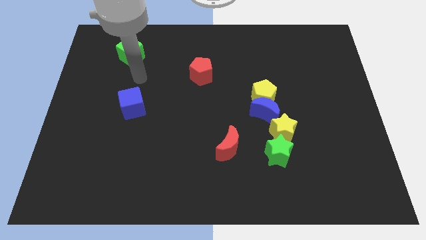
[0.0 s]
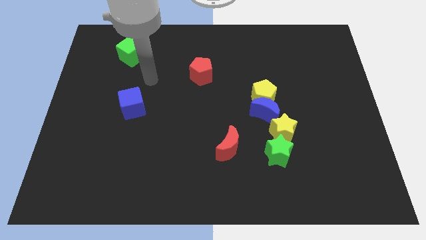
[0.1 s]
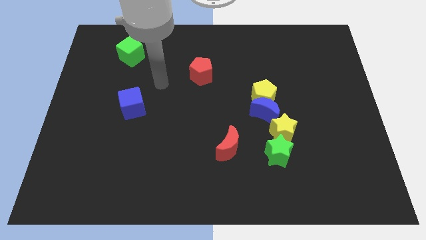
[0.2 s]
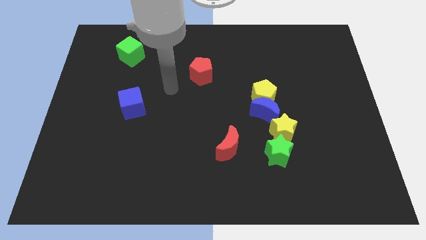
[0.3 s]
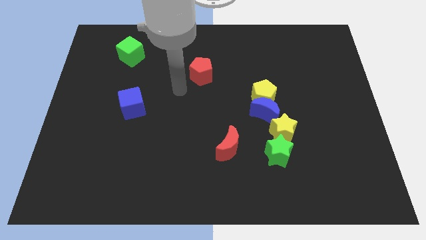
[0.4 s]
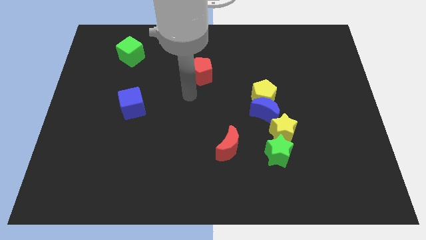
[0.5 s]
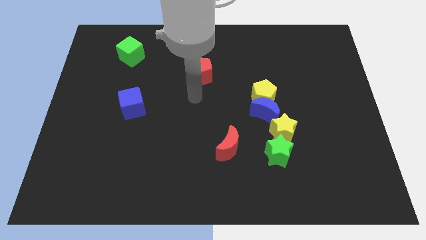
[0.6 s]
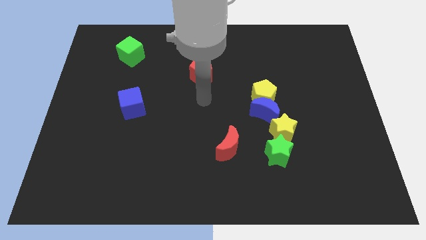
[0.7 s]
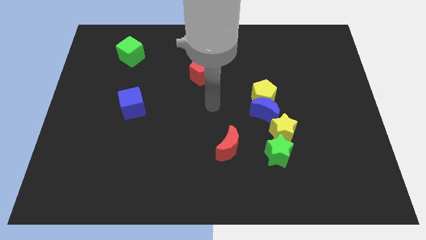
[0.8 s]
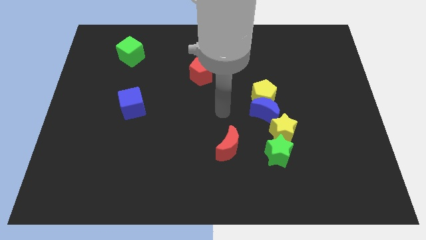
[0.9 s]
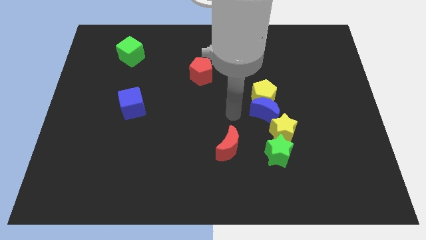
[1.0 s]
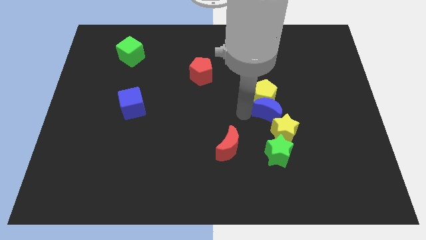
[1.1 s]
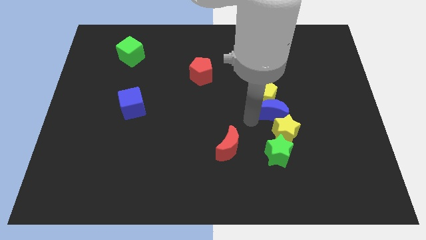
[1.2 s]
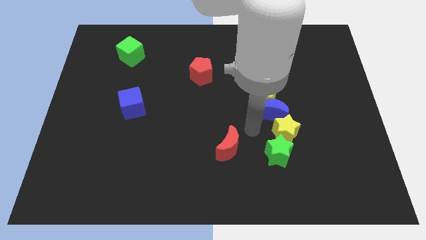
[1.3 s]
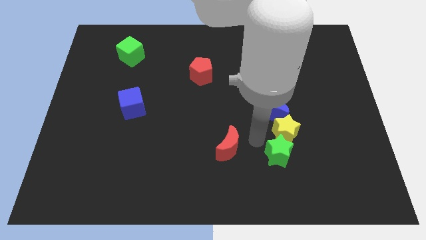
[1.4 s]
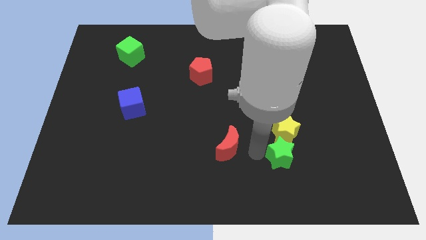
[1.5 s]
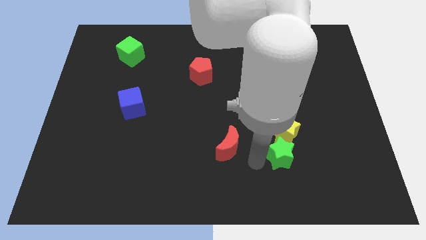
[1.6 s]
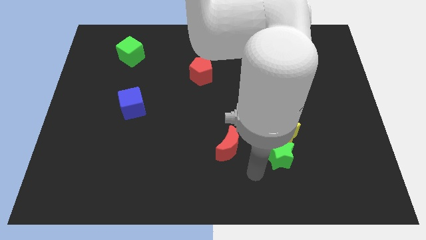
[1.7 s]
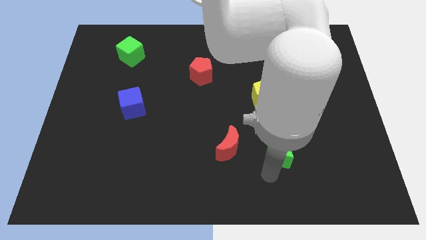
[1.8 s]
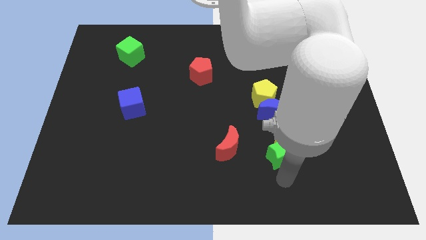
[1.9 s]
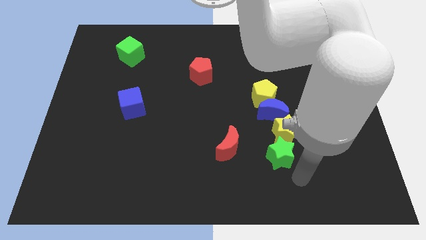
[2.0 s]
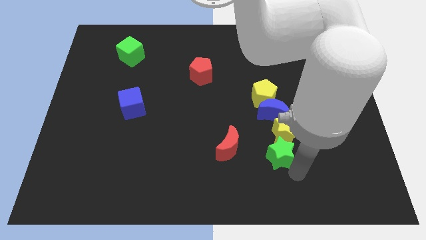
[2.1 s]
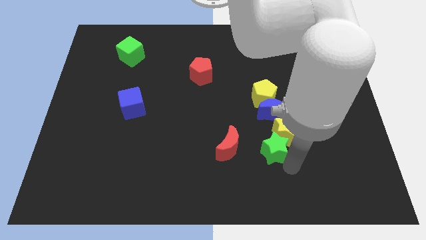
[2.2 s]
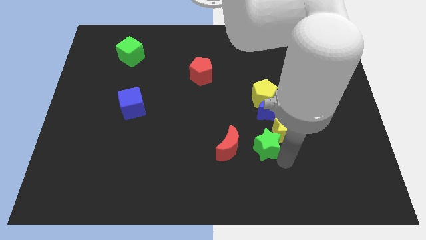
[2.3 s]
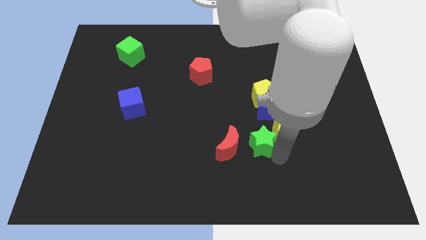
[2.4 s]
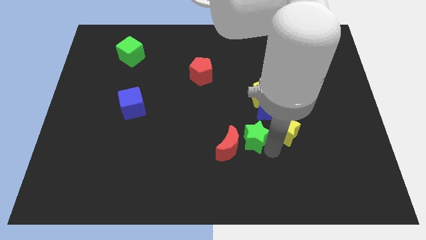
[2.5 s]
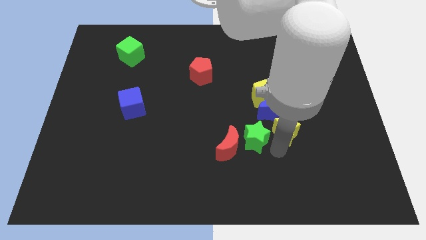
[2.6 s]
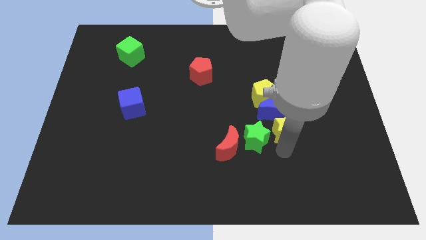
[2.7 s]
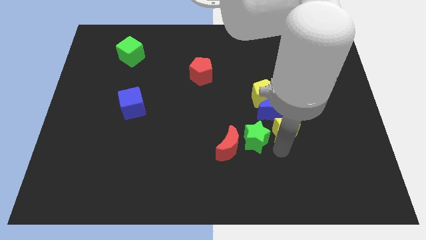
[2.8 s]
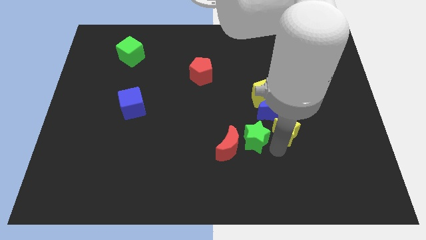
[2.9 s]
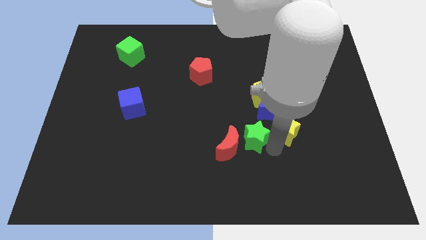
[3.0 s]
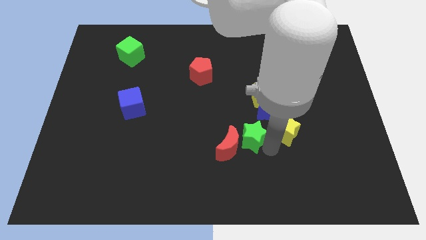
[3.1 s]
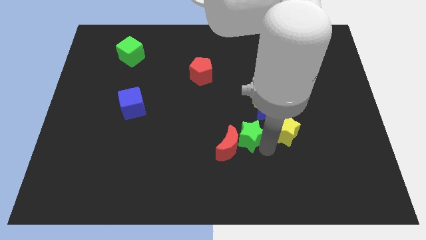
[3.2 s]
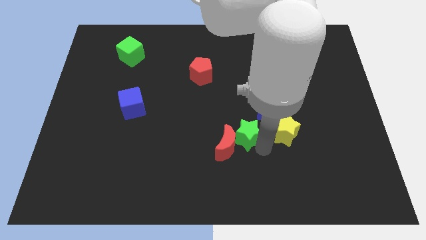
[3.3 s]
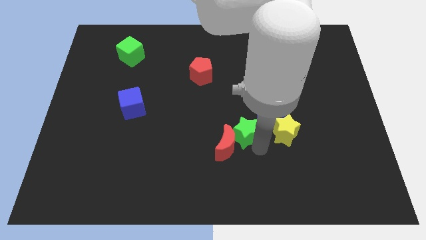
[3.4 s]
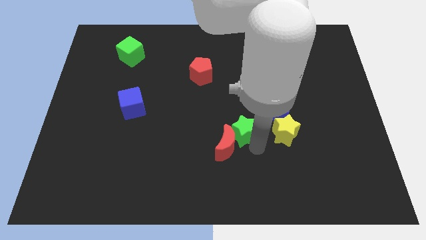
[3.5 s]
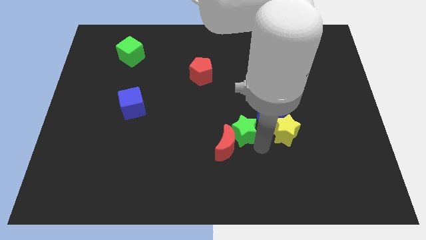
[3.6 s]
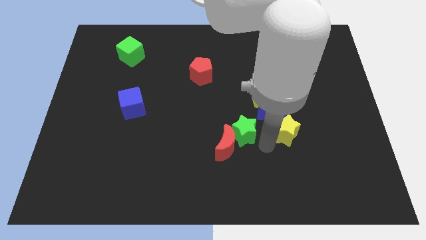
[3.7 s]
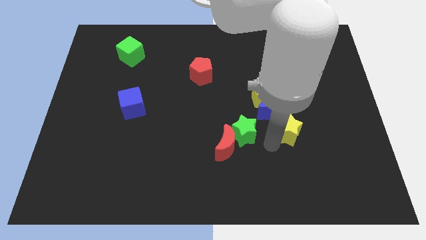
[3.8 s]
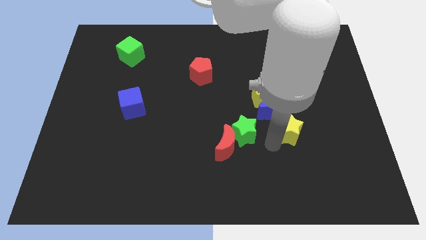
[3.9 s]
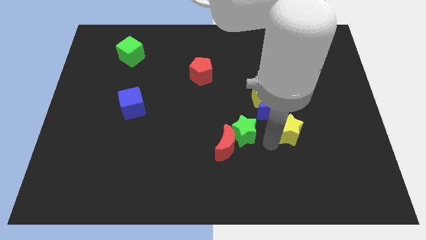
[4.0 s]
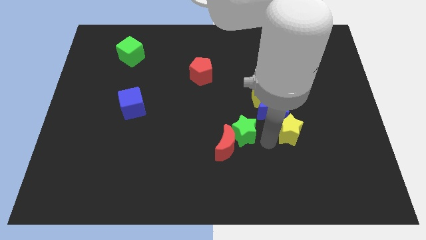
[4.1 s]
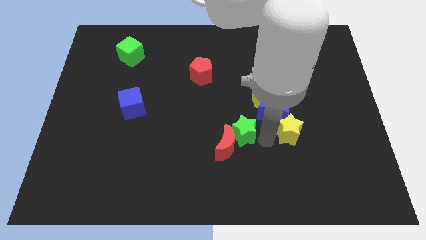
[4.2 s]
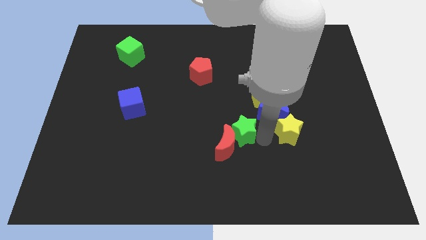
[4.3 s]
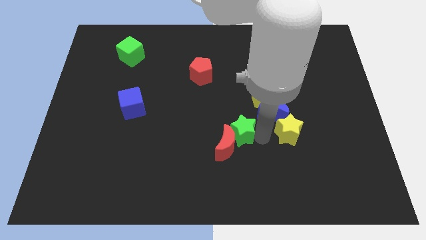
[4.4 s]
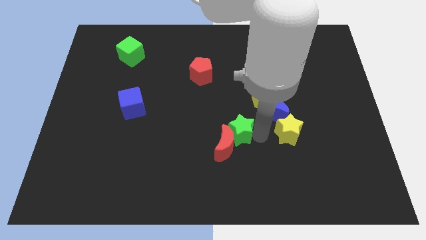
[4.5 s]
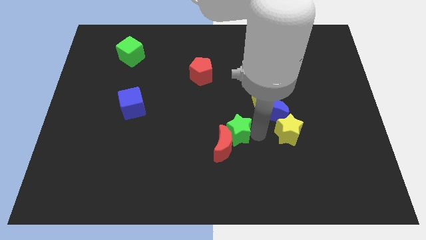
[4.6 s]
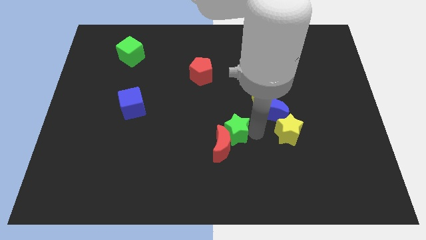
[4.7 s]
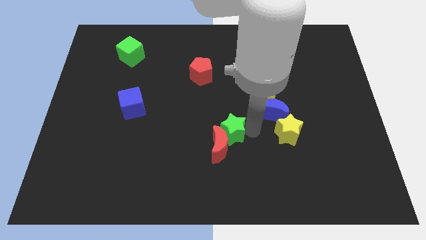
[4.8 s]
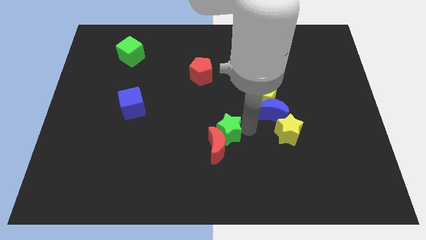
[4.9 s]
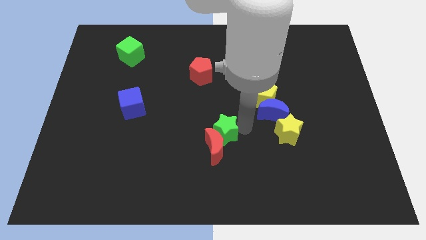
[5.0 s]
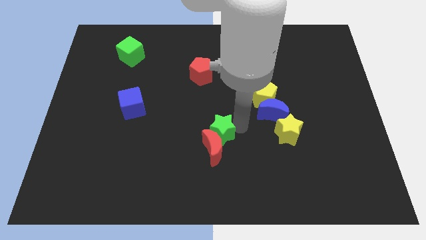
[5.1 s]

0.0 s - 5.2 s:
move the green star to the top left of the red moon
